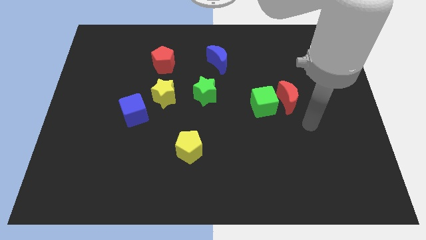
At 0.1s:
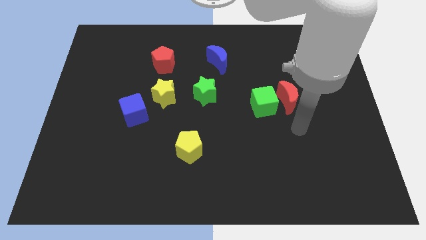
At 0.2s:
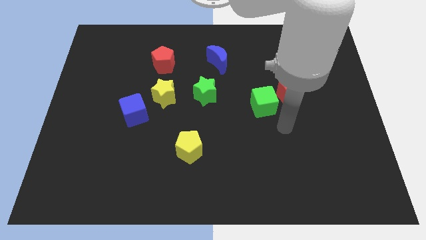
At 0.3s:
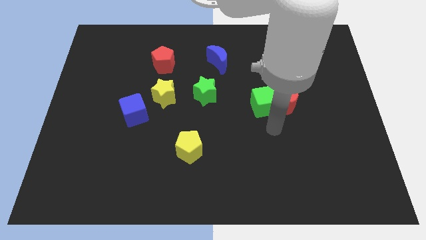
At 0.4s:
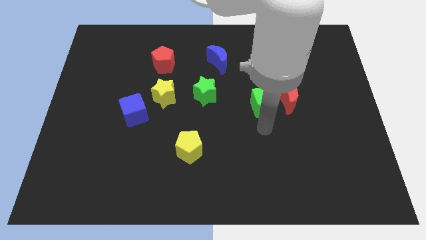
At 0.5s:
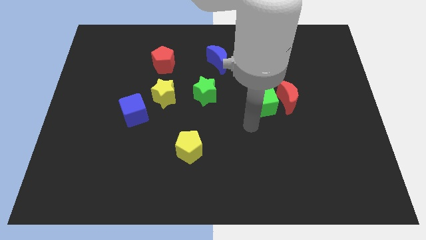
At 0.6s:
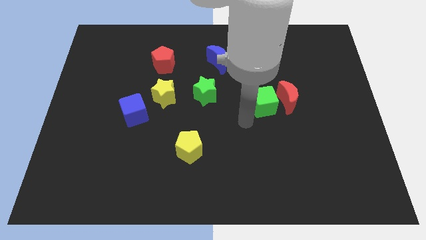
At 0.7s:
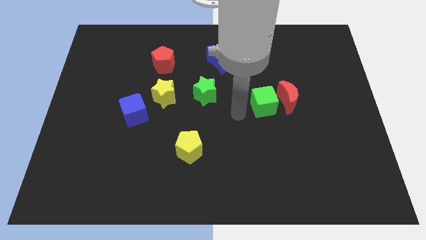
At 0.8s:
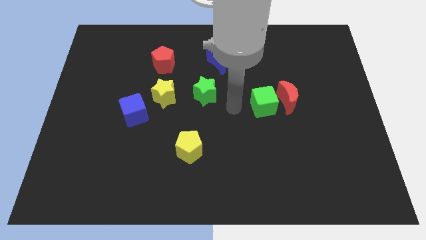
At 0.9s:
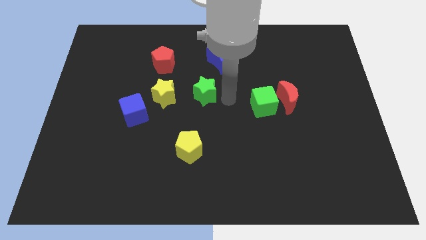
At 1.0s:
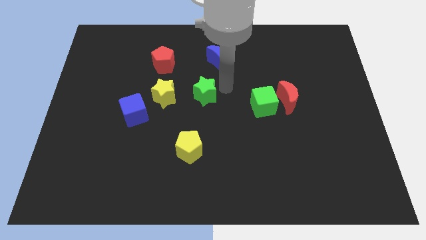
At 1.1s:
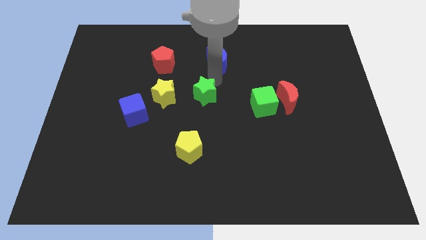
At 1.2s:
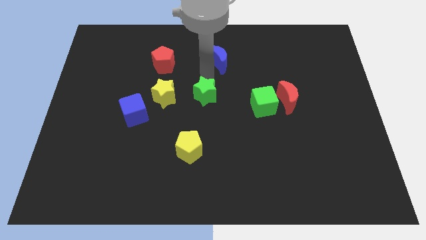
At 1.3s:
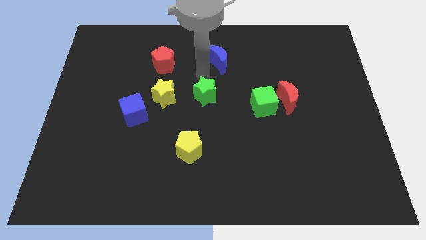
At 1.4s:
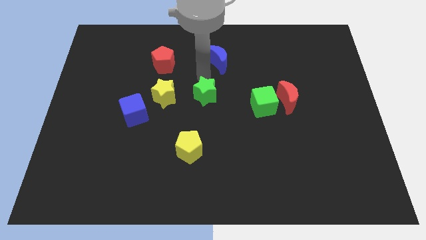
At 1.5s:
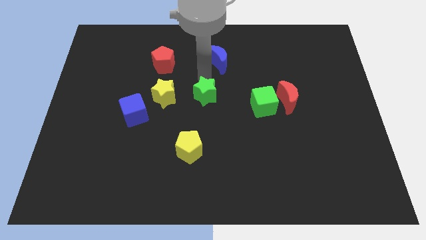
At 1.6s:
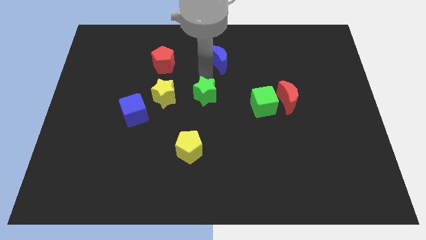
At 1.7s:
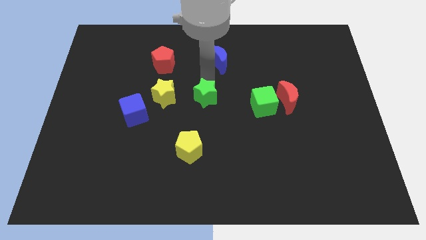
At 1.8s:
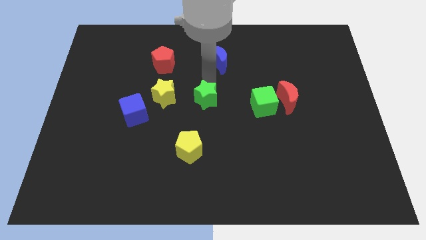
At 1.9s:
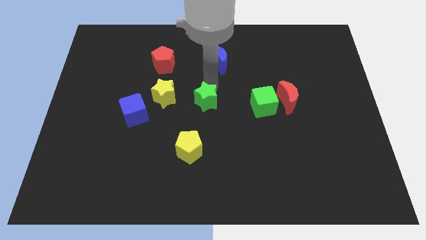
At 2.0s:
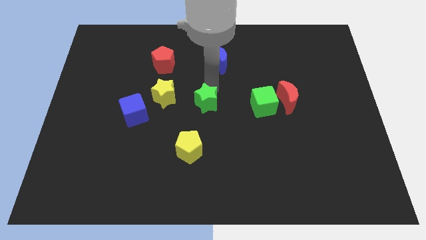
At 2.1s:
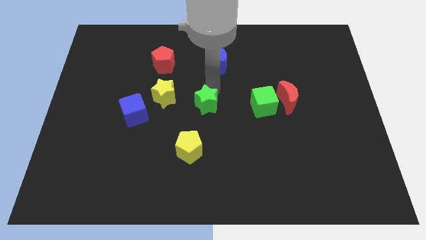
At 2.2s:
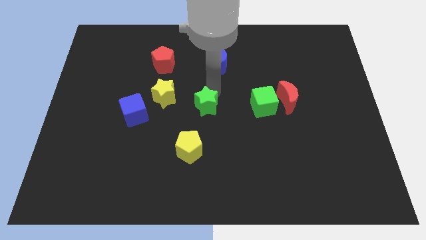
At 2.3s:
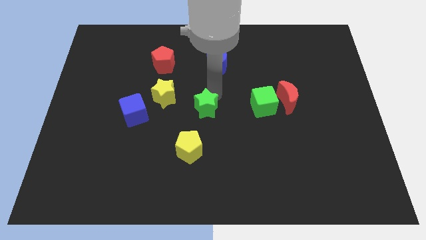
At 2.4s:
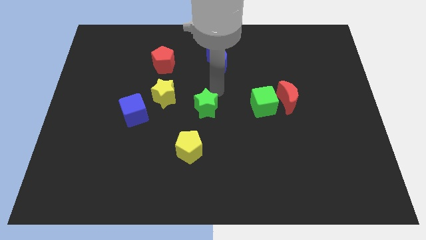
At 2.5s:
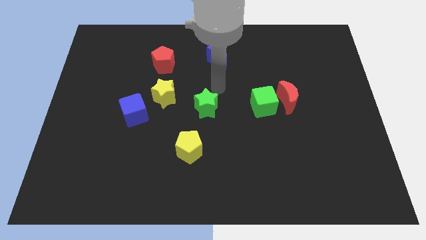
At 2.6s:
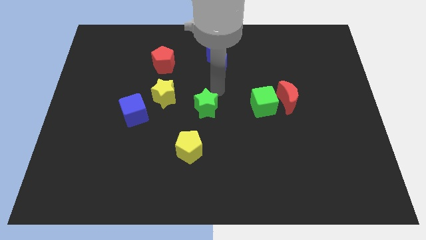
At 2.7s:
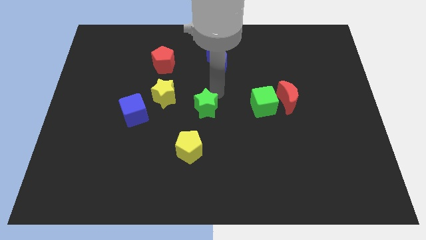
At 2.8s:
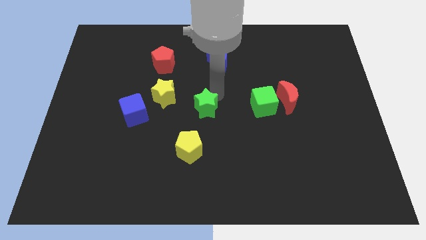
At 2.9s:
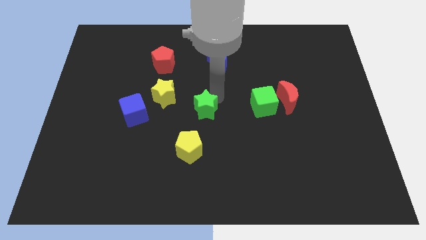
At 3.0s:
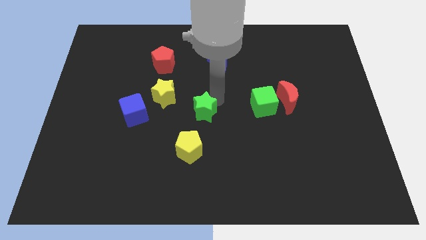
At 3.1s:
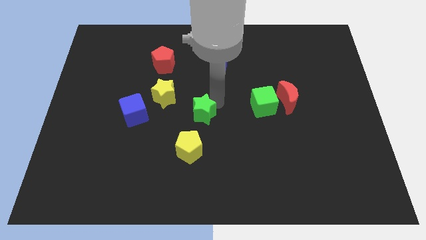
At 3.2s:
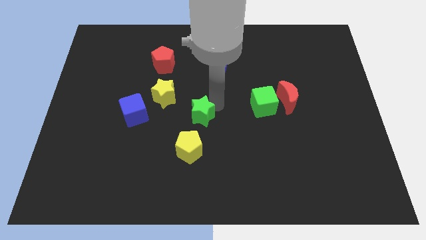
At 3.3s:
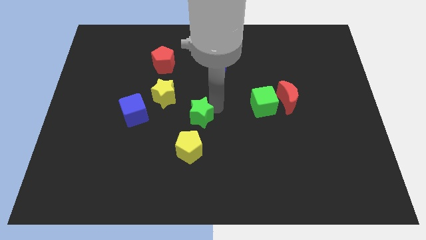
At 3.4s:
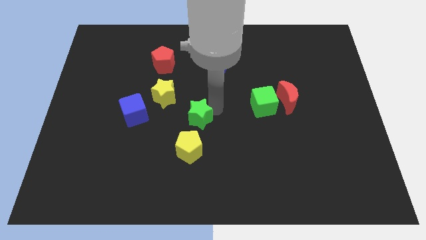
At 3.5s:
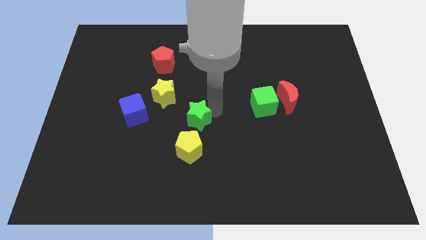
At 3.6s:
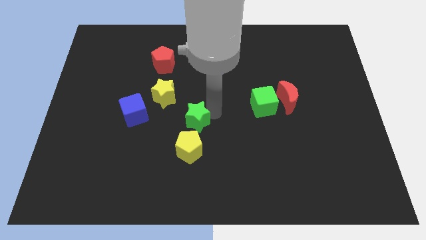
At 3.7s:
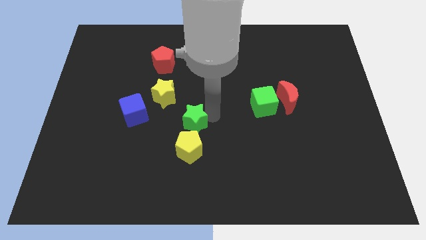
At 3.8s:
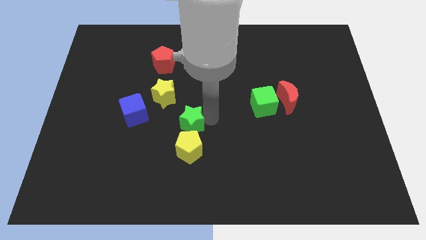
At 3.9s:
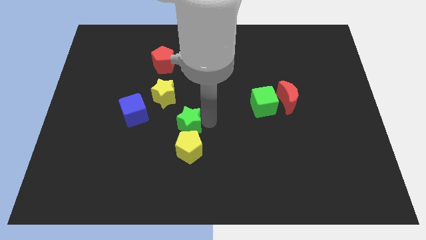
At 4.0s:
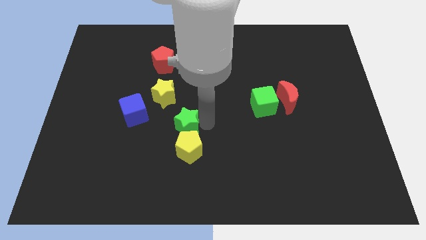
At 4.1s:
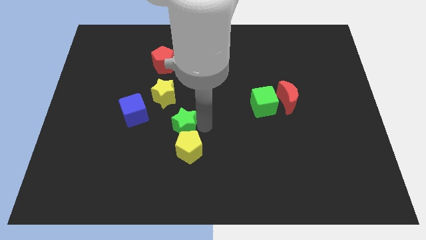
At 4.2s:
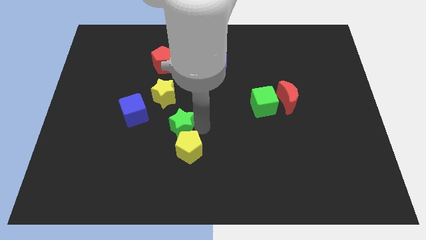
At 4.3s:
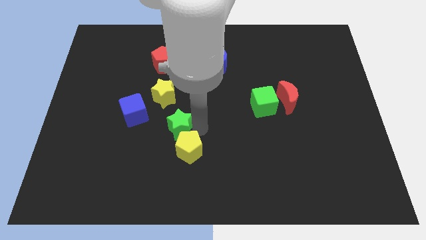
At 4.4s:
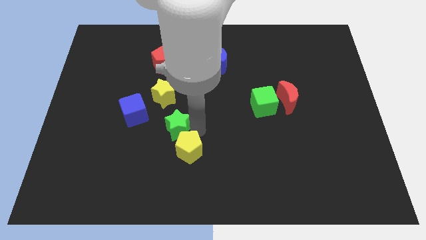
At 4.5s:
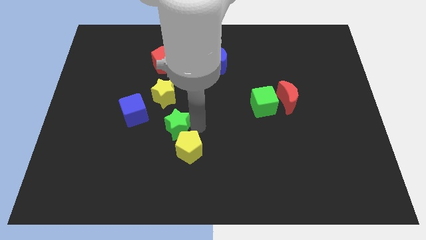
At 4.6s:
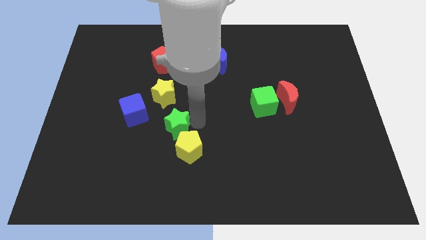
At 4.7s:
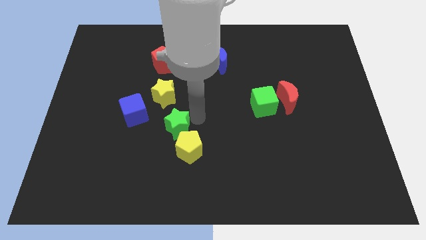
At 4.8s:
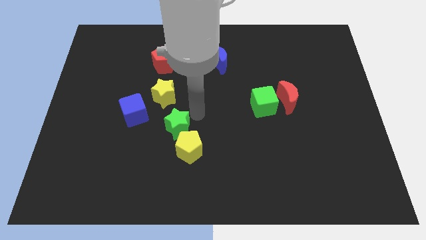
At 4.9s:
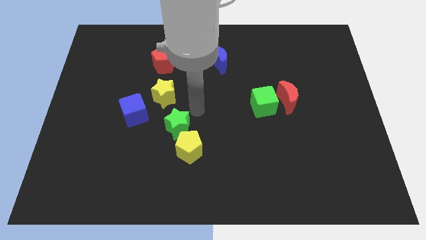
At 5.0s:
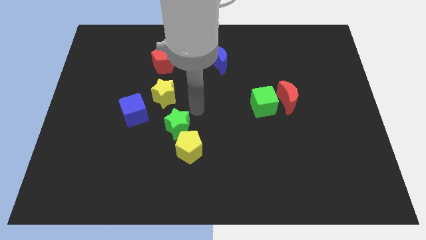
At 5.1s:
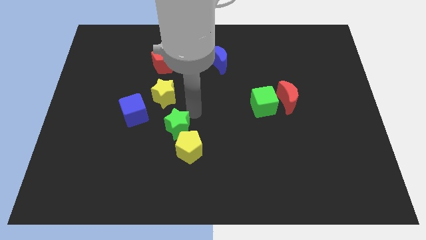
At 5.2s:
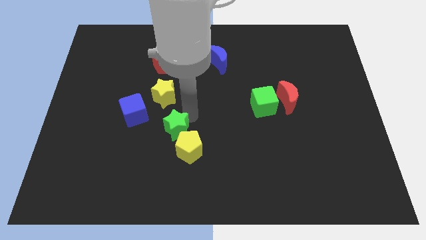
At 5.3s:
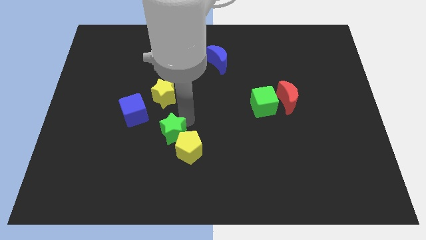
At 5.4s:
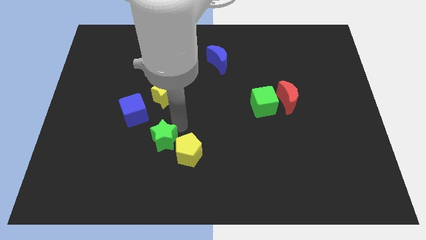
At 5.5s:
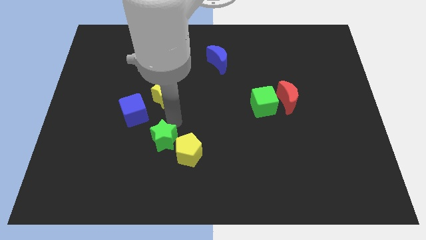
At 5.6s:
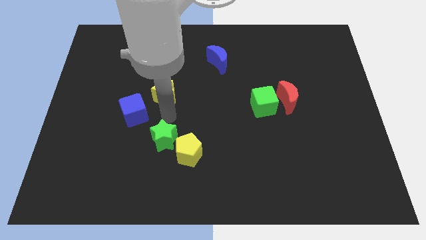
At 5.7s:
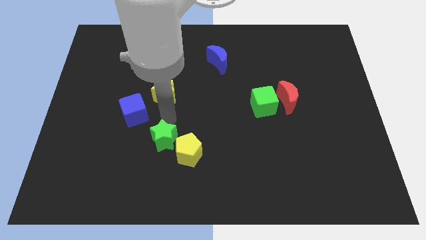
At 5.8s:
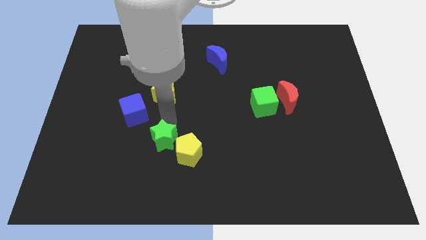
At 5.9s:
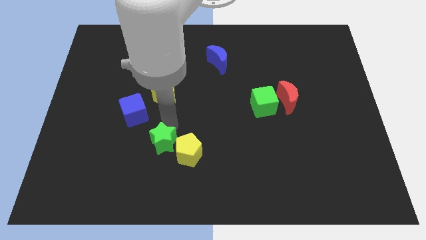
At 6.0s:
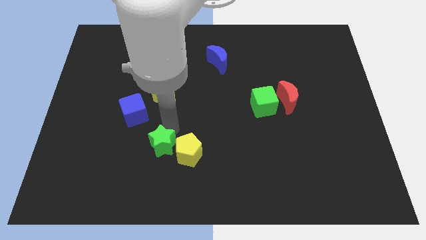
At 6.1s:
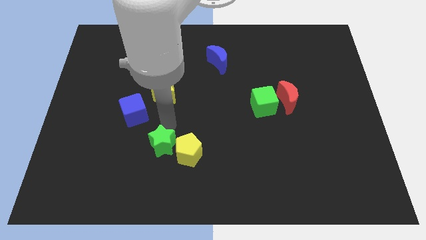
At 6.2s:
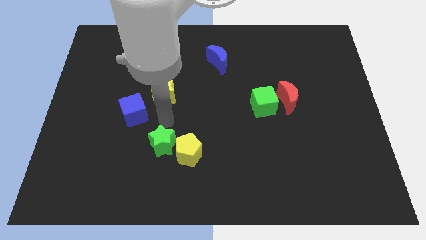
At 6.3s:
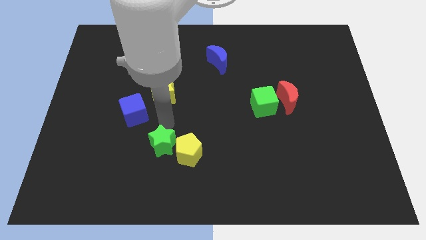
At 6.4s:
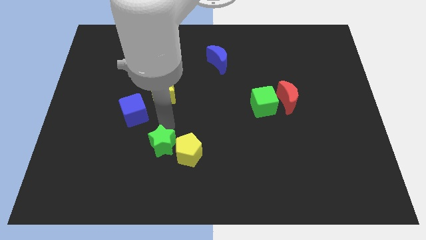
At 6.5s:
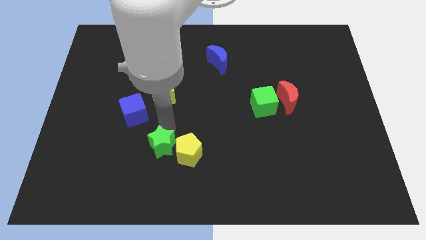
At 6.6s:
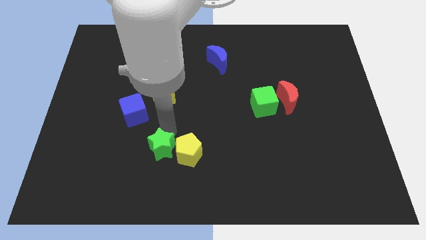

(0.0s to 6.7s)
push the green star to the bottom left side of the yellow pentagon
